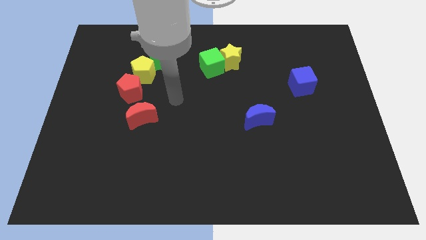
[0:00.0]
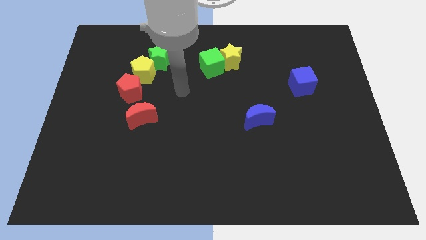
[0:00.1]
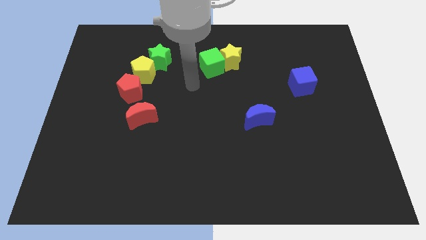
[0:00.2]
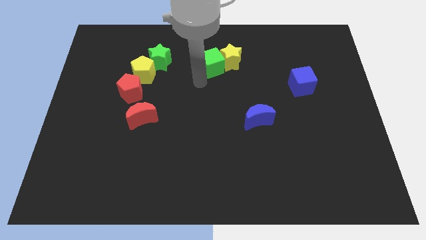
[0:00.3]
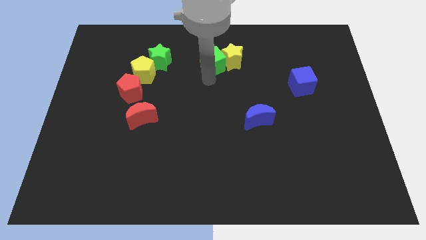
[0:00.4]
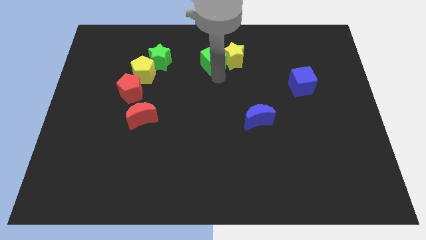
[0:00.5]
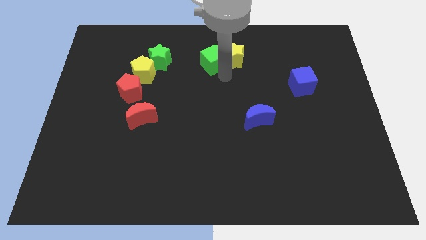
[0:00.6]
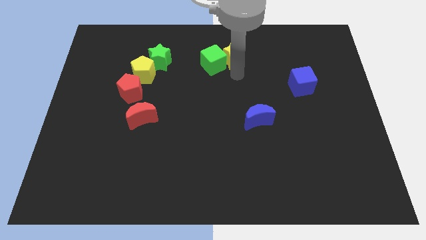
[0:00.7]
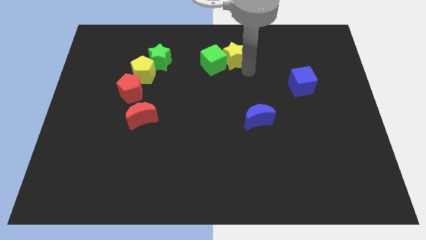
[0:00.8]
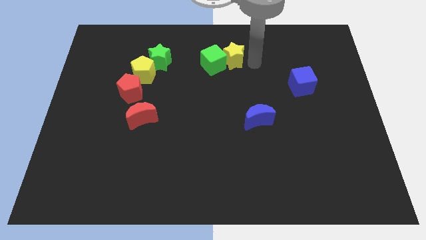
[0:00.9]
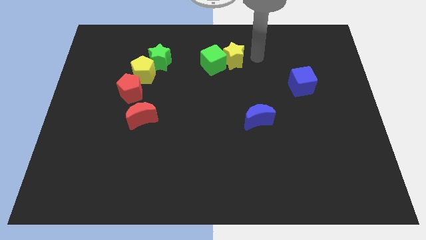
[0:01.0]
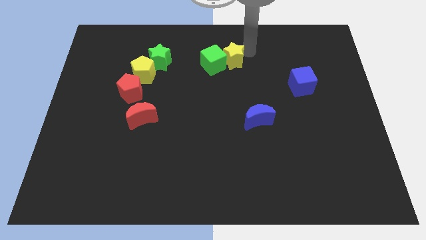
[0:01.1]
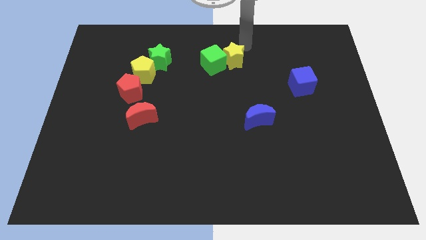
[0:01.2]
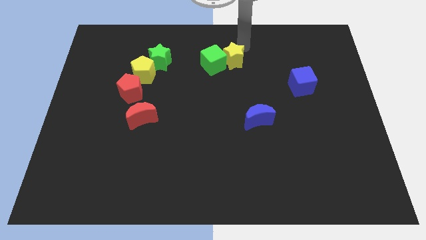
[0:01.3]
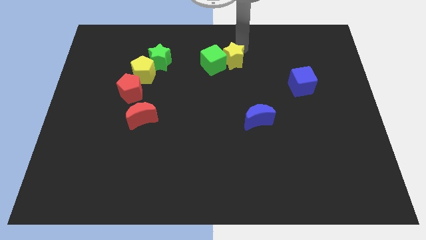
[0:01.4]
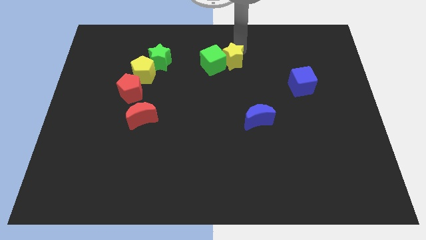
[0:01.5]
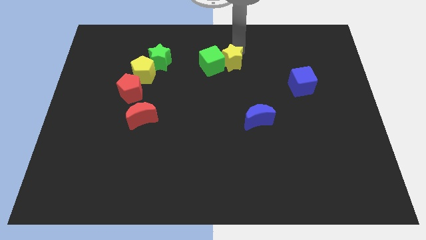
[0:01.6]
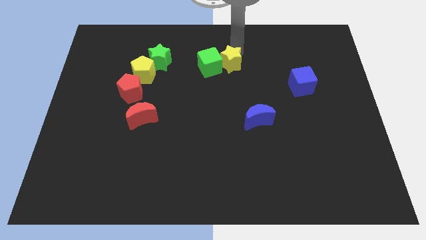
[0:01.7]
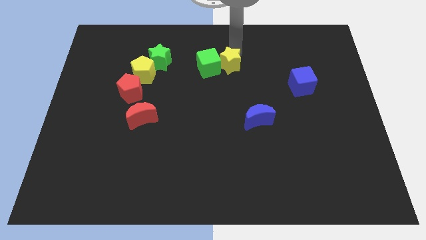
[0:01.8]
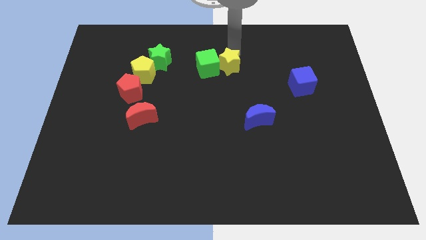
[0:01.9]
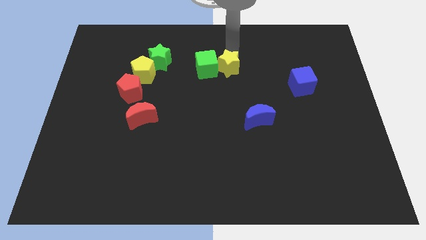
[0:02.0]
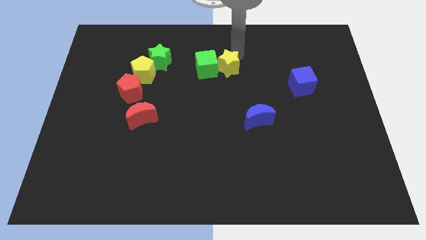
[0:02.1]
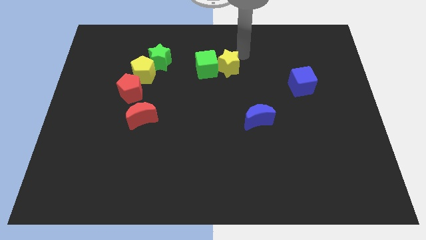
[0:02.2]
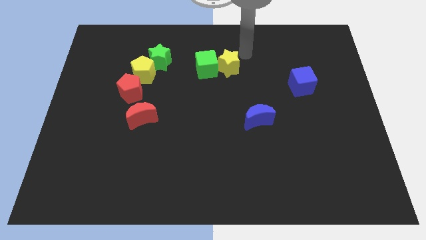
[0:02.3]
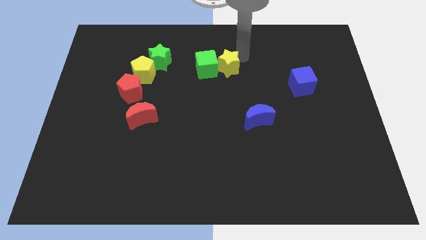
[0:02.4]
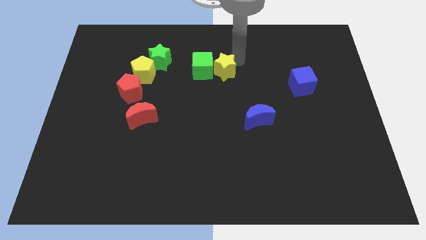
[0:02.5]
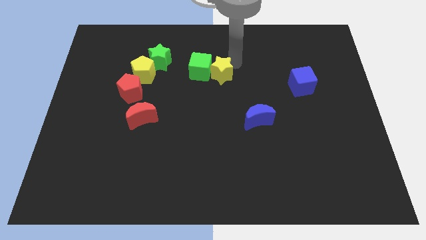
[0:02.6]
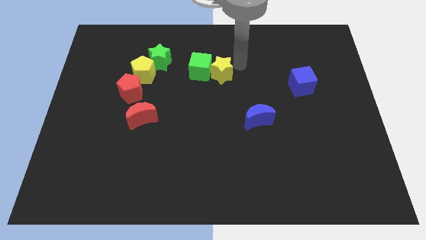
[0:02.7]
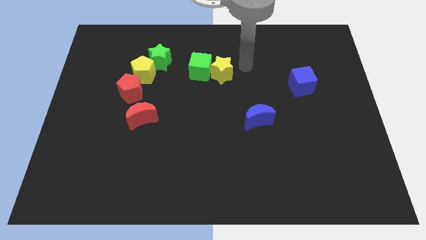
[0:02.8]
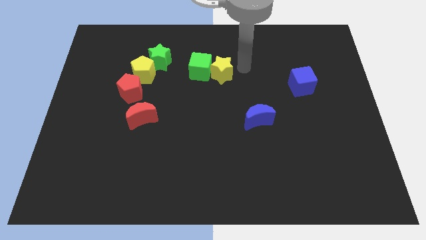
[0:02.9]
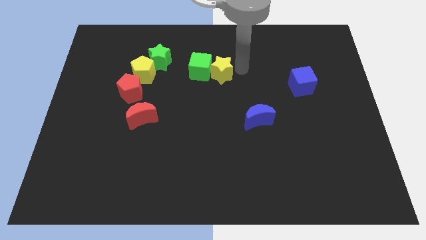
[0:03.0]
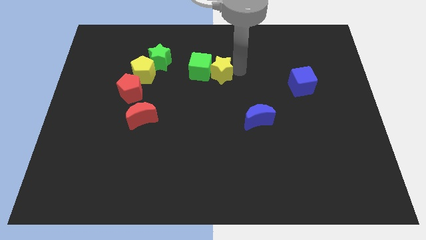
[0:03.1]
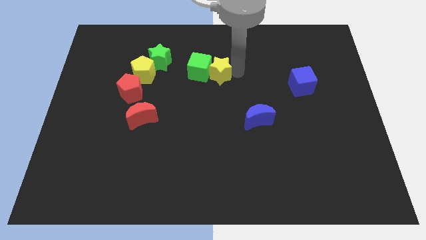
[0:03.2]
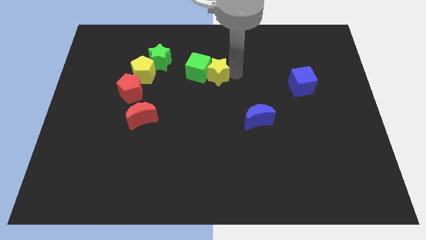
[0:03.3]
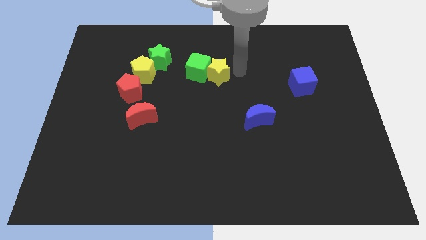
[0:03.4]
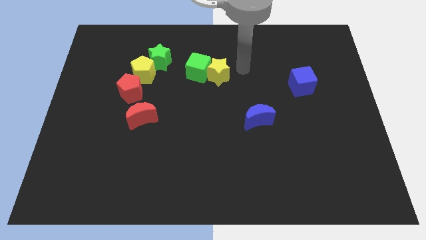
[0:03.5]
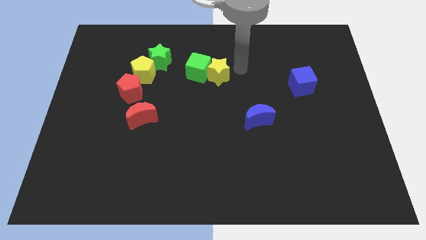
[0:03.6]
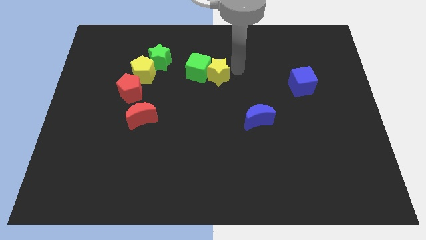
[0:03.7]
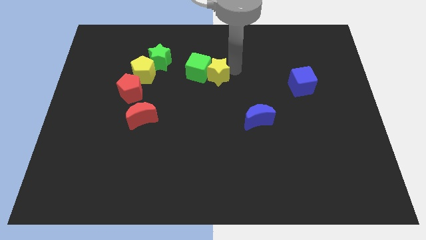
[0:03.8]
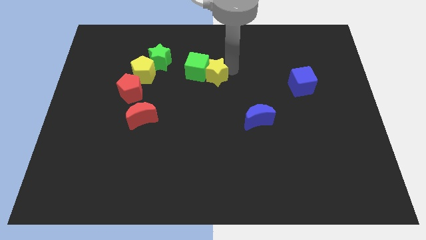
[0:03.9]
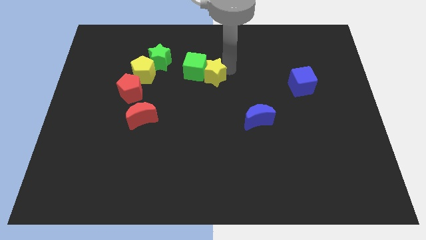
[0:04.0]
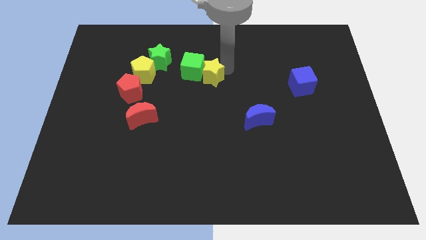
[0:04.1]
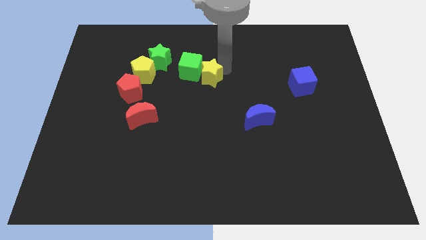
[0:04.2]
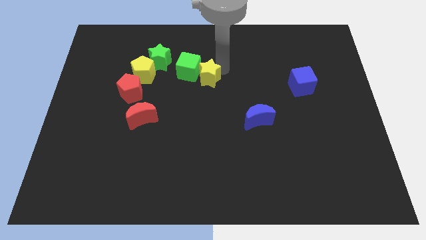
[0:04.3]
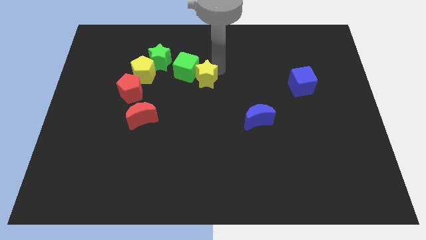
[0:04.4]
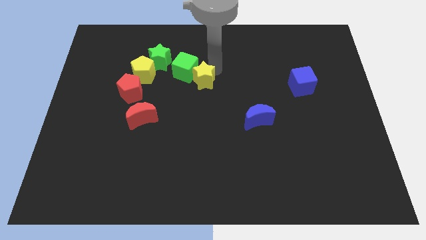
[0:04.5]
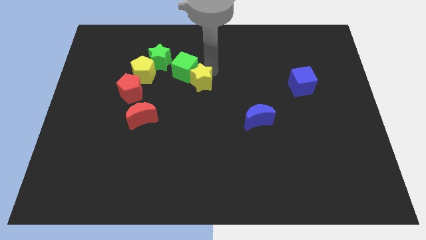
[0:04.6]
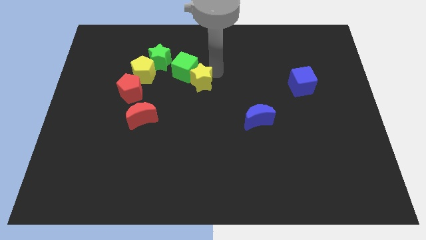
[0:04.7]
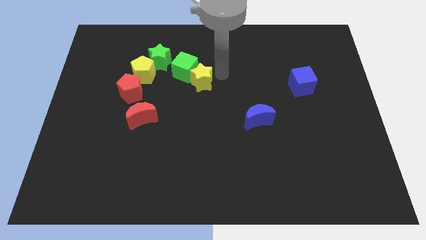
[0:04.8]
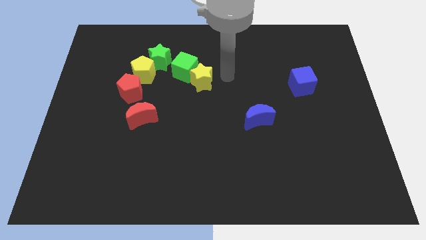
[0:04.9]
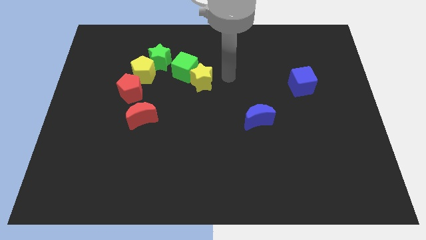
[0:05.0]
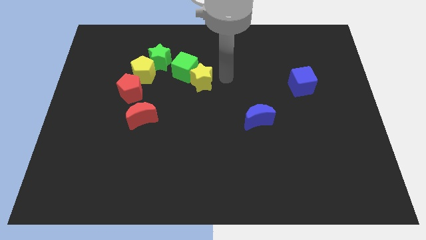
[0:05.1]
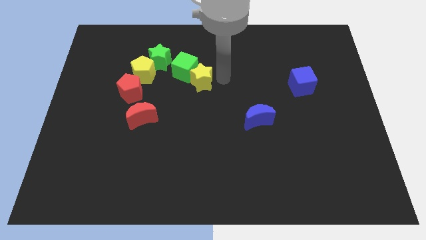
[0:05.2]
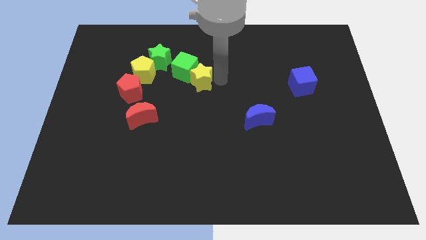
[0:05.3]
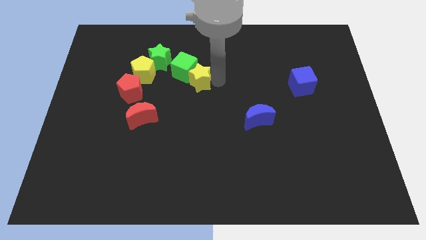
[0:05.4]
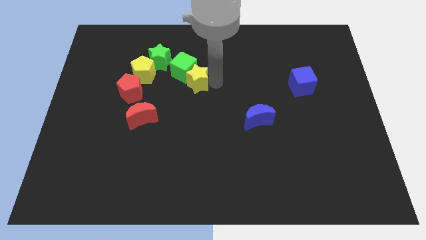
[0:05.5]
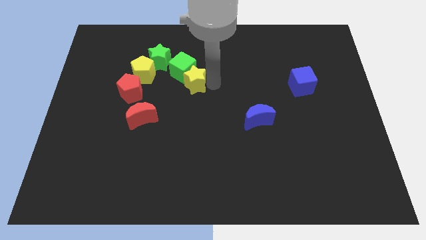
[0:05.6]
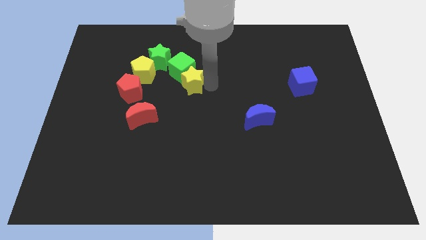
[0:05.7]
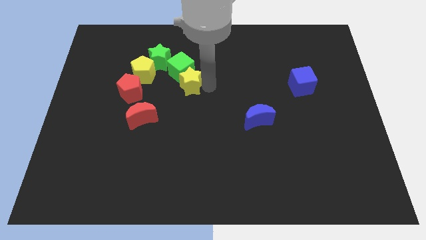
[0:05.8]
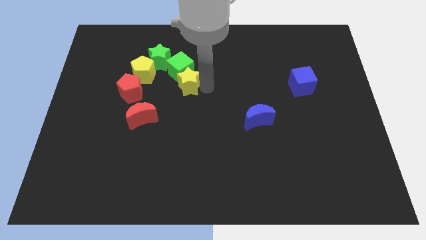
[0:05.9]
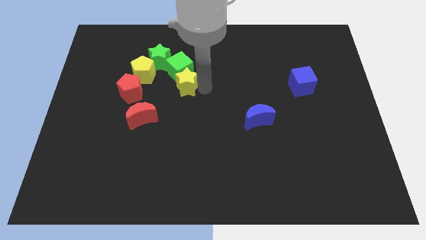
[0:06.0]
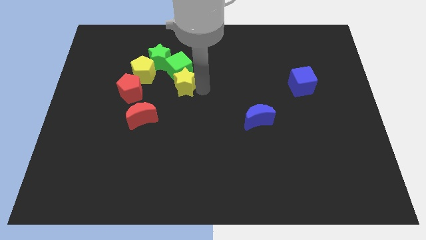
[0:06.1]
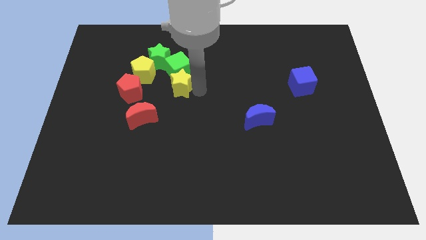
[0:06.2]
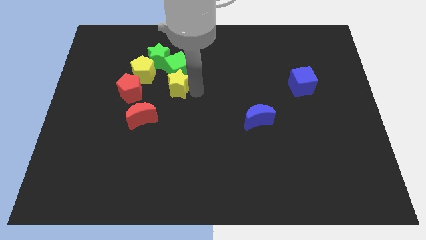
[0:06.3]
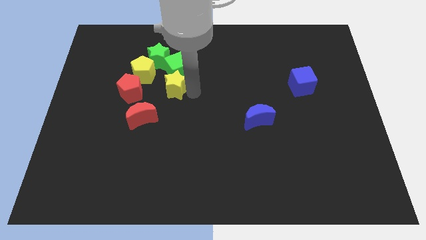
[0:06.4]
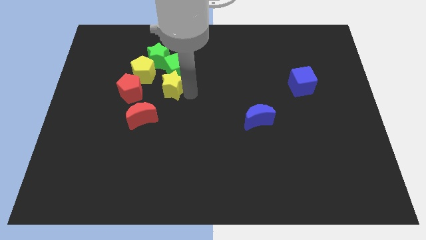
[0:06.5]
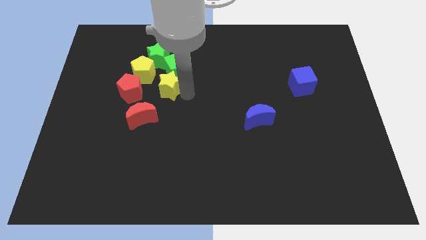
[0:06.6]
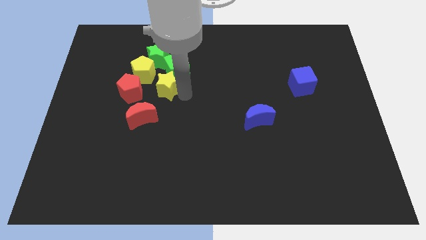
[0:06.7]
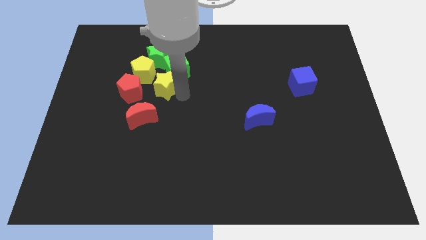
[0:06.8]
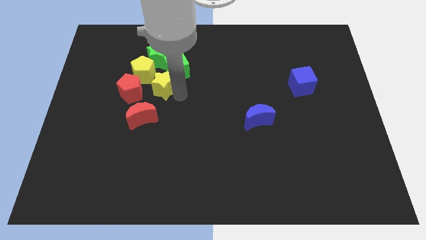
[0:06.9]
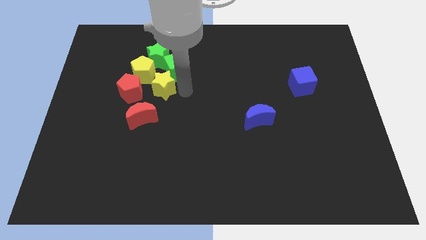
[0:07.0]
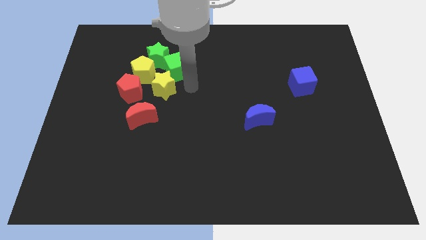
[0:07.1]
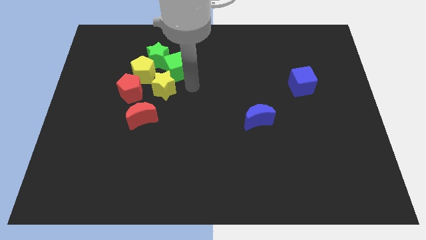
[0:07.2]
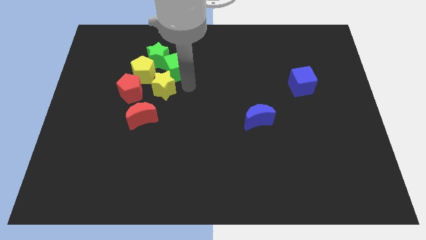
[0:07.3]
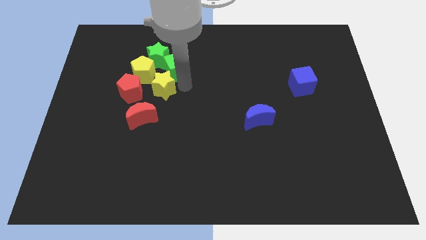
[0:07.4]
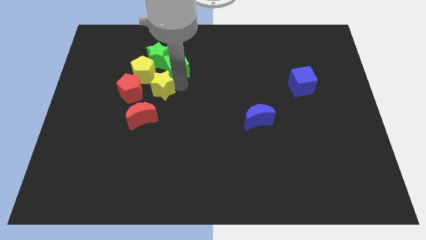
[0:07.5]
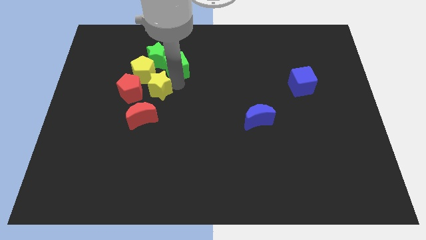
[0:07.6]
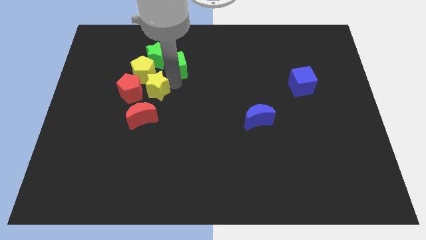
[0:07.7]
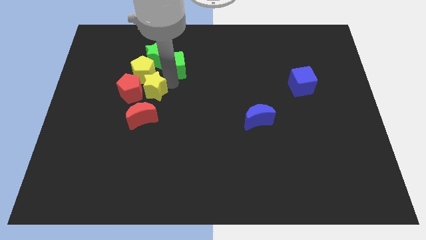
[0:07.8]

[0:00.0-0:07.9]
put the yellow star next to the red pentagon
